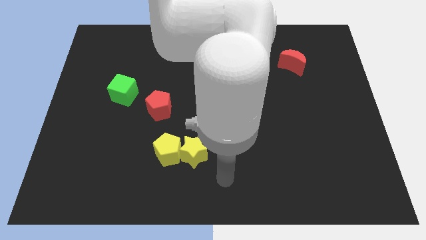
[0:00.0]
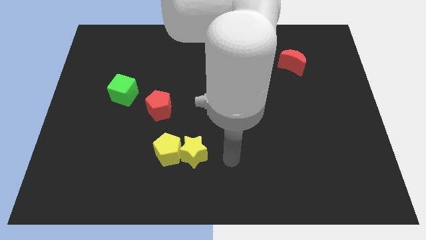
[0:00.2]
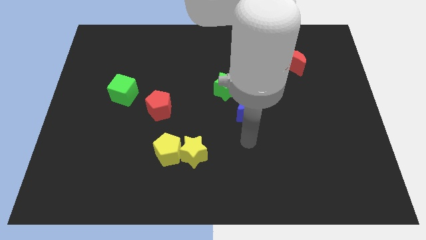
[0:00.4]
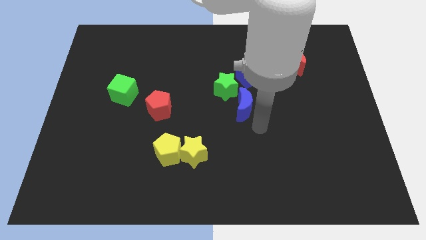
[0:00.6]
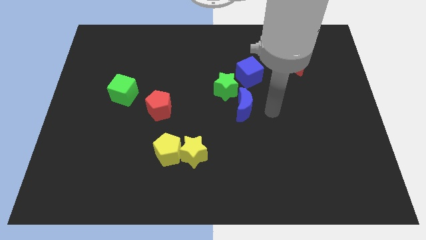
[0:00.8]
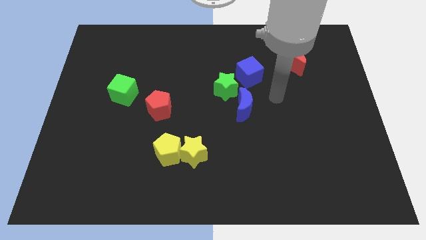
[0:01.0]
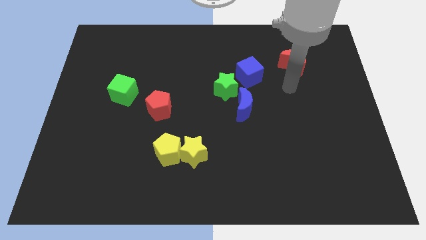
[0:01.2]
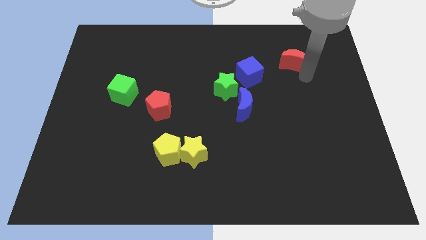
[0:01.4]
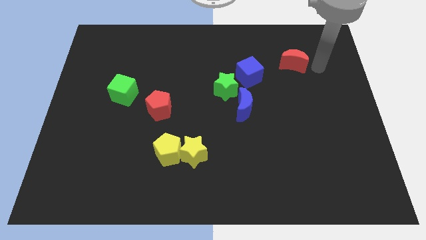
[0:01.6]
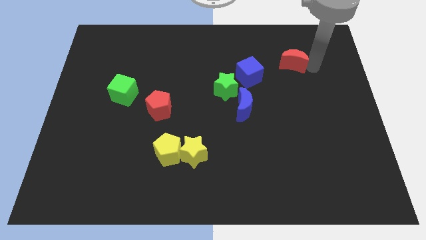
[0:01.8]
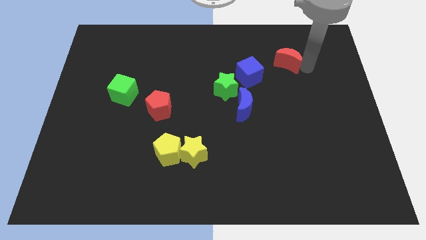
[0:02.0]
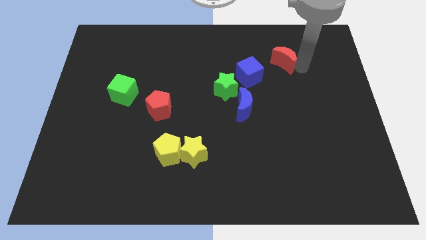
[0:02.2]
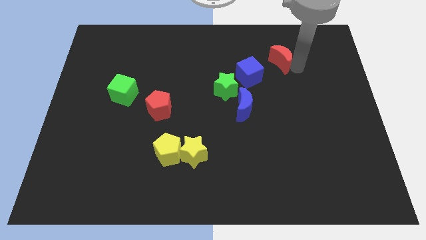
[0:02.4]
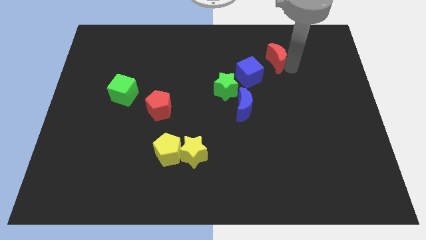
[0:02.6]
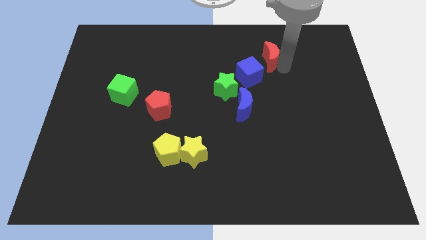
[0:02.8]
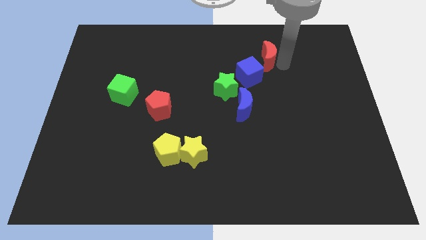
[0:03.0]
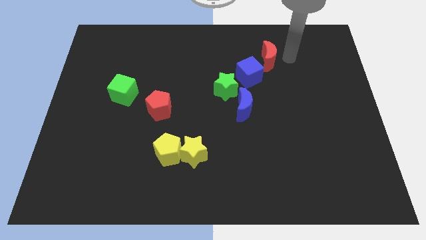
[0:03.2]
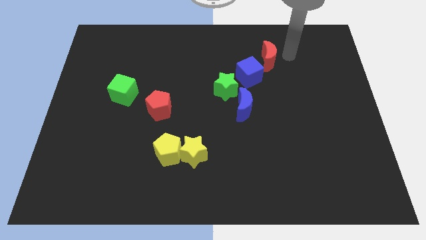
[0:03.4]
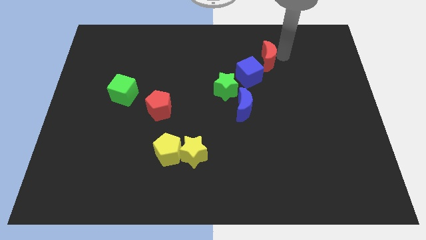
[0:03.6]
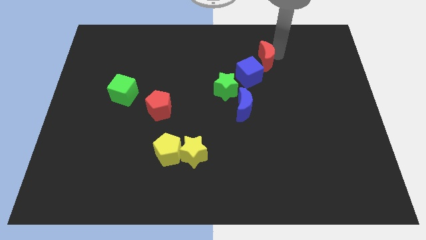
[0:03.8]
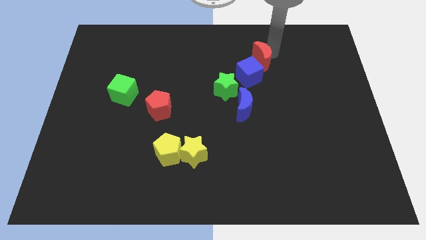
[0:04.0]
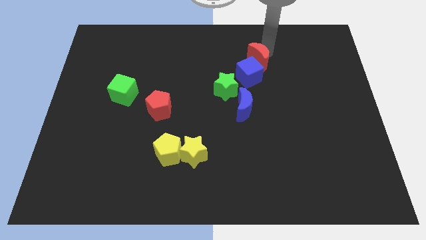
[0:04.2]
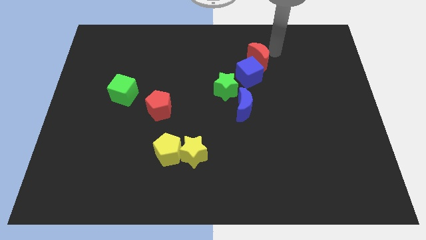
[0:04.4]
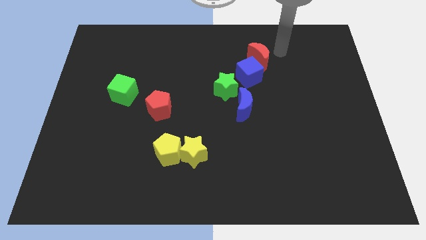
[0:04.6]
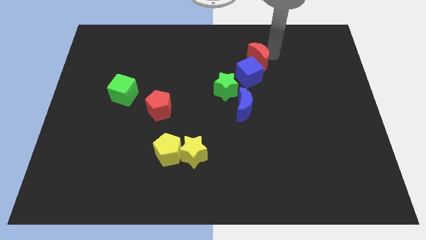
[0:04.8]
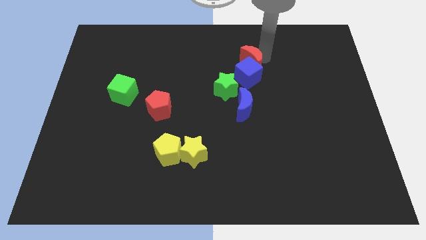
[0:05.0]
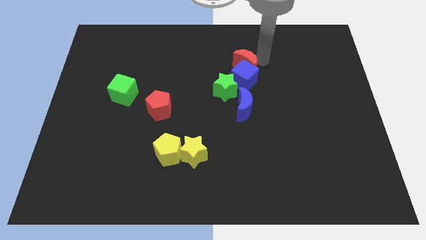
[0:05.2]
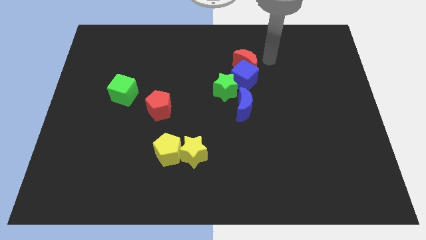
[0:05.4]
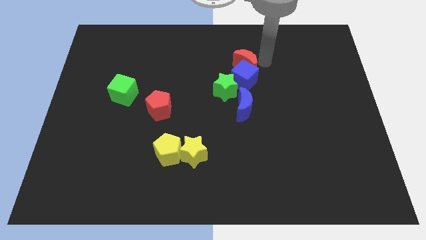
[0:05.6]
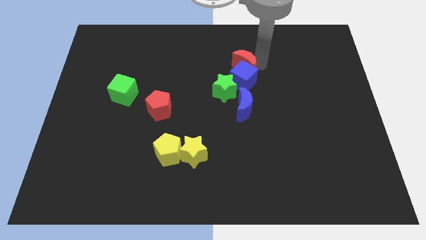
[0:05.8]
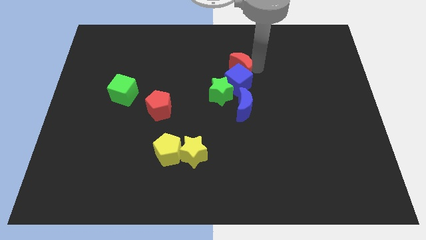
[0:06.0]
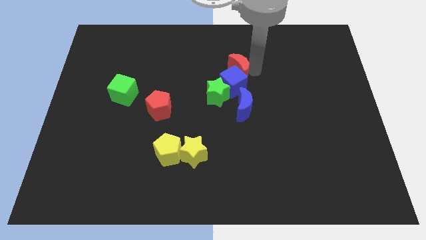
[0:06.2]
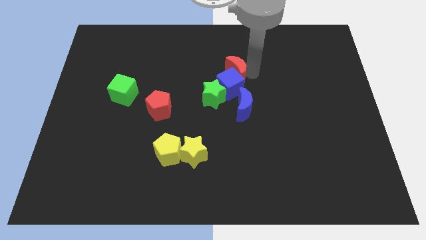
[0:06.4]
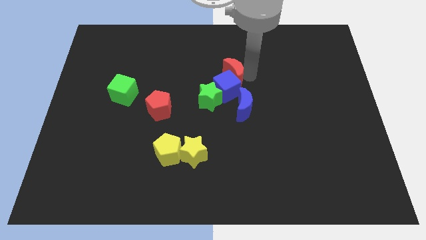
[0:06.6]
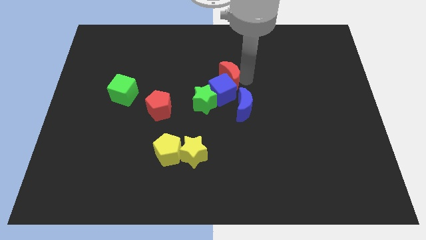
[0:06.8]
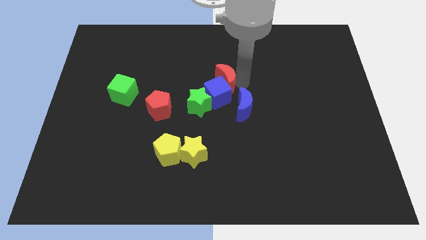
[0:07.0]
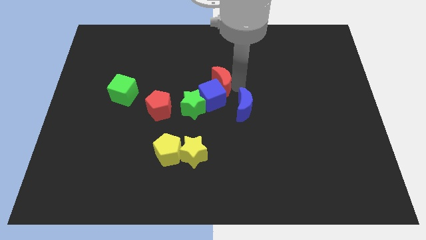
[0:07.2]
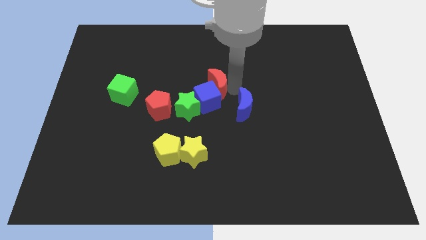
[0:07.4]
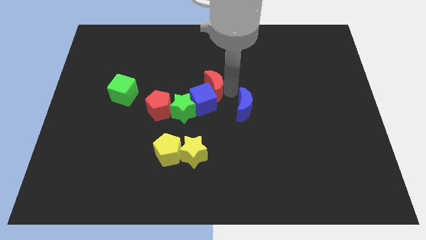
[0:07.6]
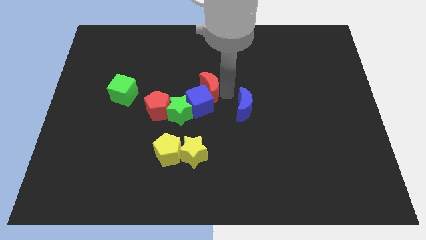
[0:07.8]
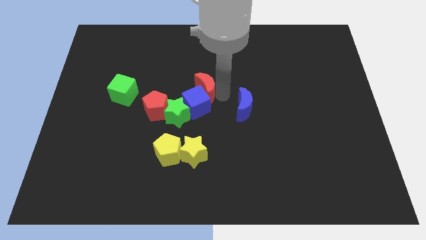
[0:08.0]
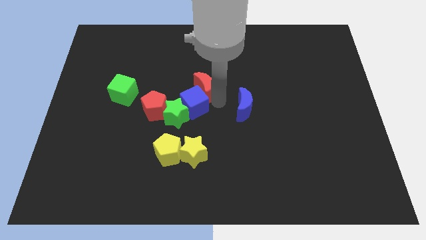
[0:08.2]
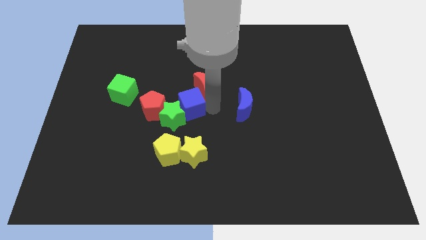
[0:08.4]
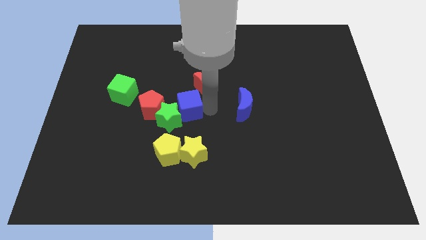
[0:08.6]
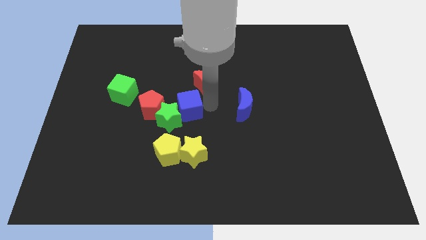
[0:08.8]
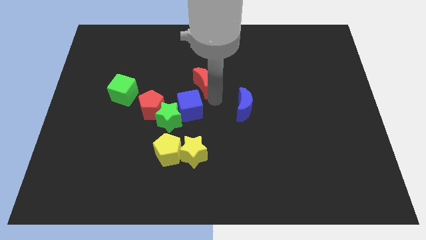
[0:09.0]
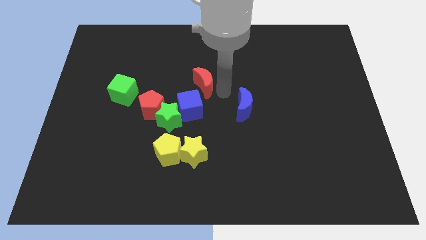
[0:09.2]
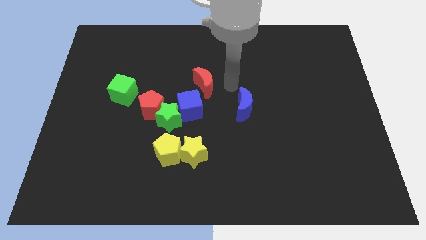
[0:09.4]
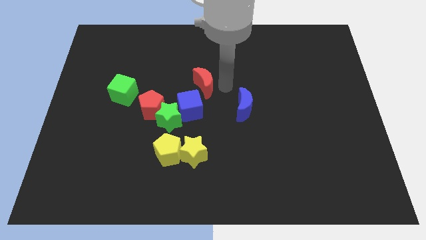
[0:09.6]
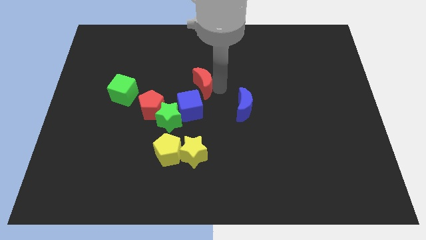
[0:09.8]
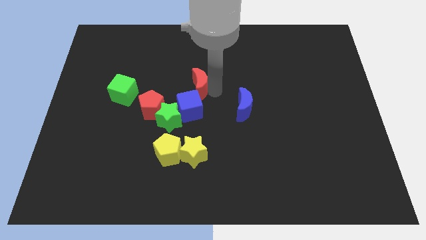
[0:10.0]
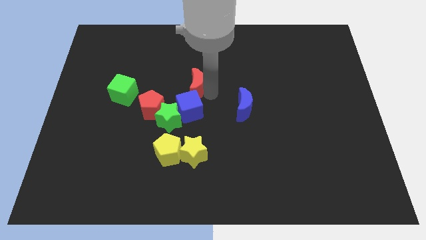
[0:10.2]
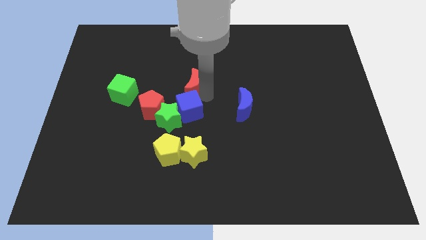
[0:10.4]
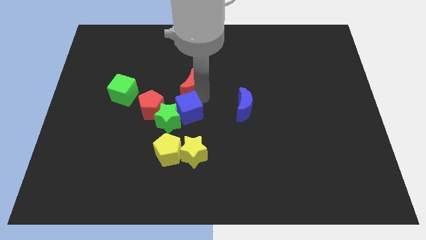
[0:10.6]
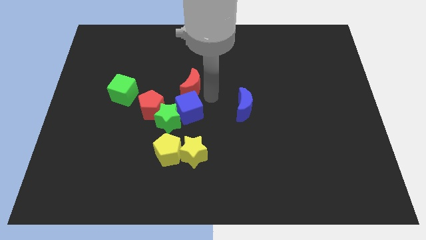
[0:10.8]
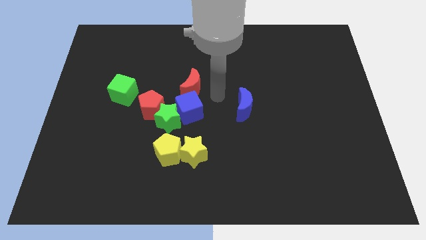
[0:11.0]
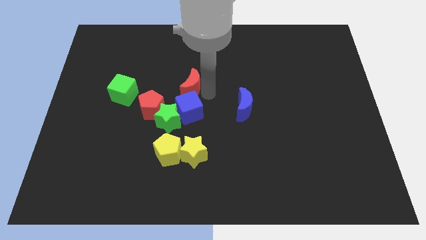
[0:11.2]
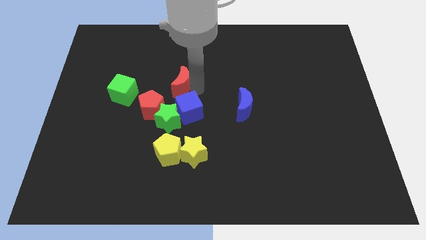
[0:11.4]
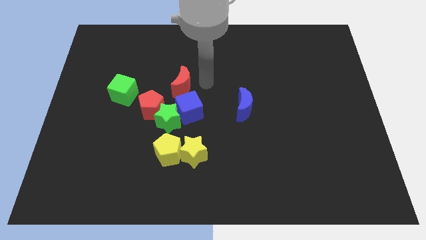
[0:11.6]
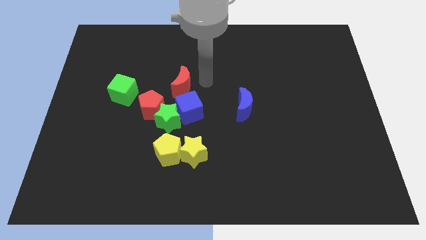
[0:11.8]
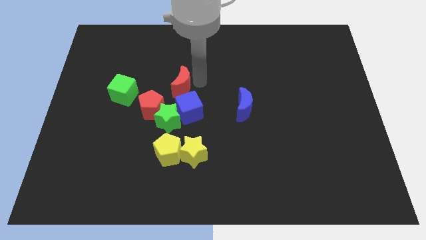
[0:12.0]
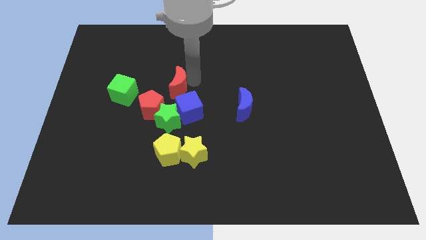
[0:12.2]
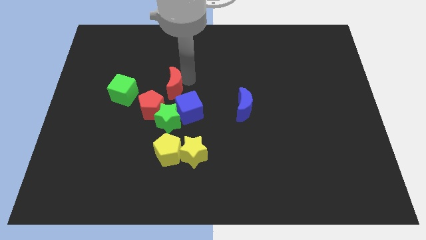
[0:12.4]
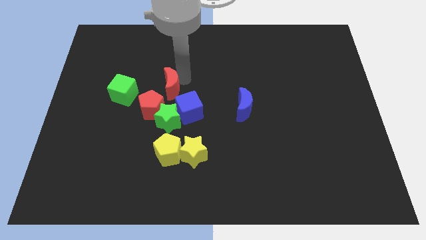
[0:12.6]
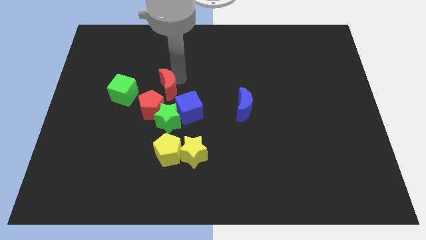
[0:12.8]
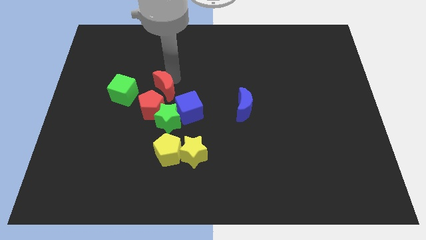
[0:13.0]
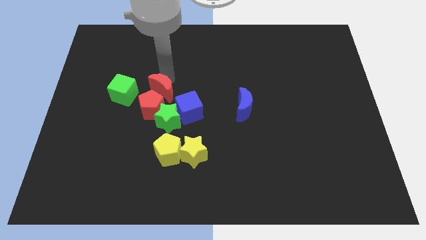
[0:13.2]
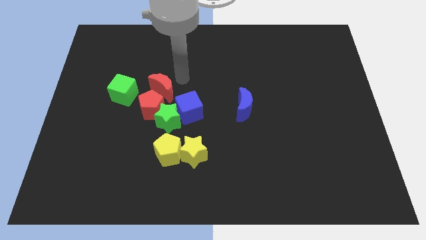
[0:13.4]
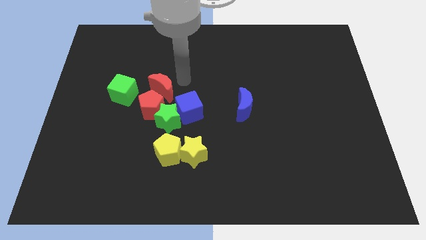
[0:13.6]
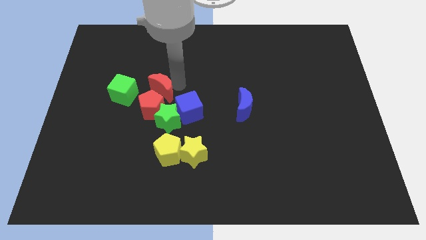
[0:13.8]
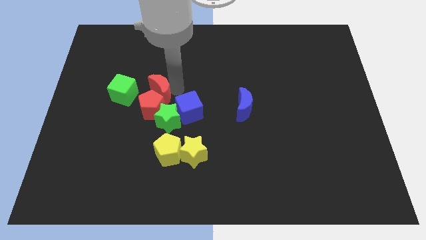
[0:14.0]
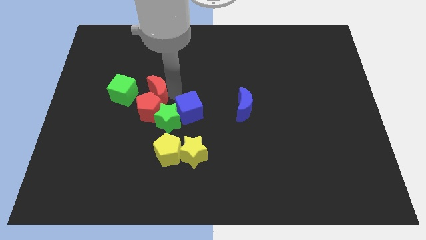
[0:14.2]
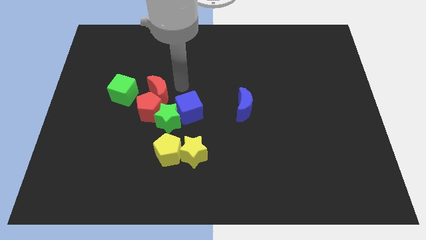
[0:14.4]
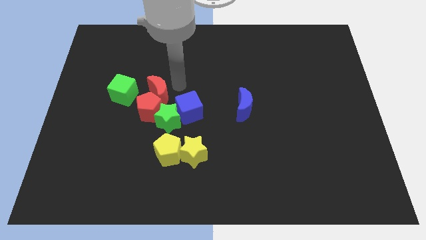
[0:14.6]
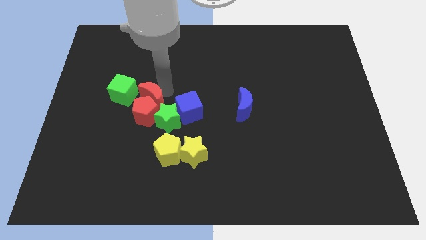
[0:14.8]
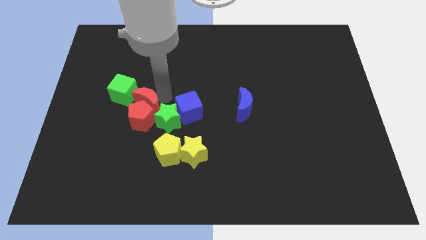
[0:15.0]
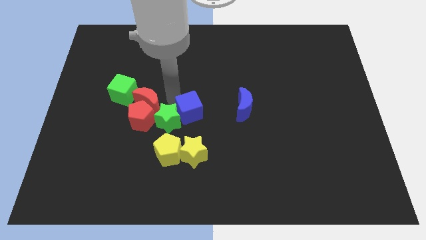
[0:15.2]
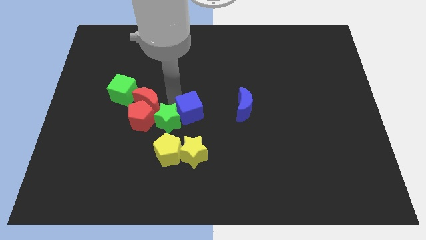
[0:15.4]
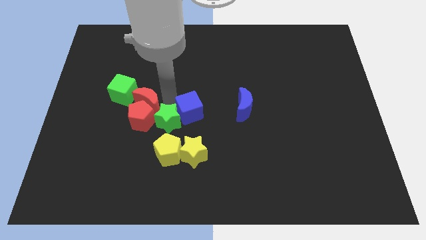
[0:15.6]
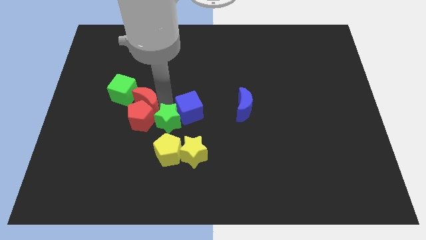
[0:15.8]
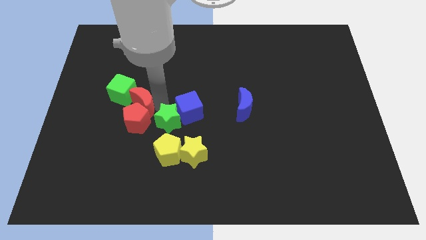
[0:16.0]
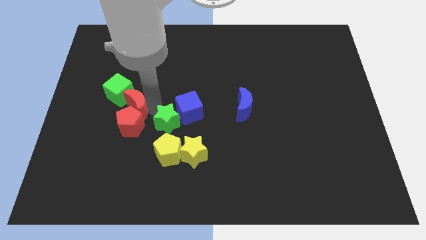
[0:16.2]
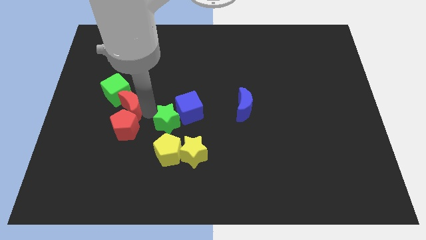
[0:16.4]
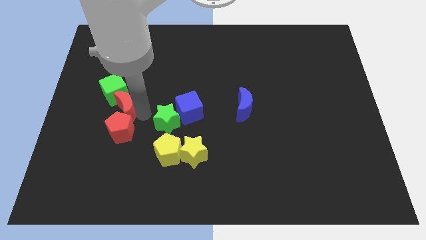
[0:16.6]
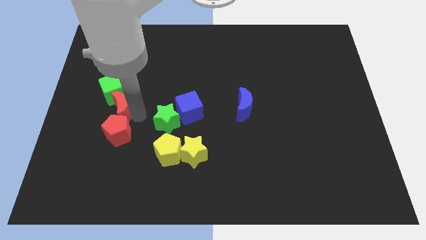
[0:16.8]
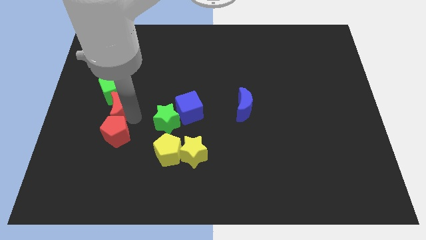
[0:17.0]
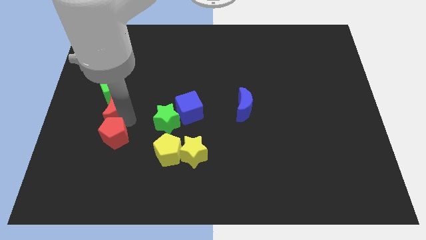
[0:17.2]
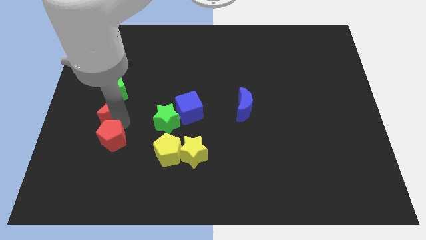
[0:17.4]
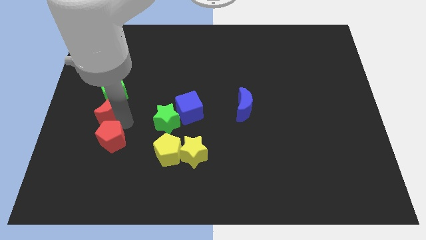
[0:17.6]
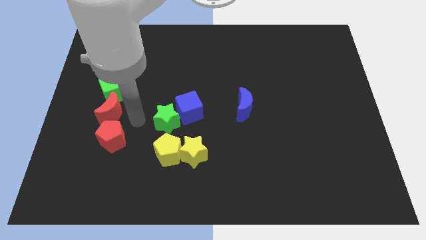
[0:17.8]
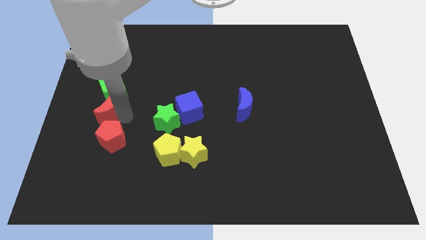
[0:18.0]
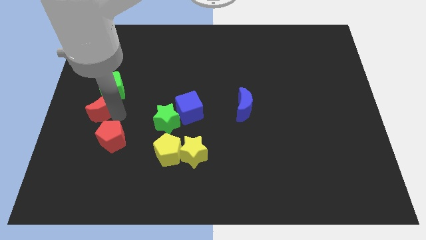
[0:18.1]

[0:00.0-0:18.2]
put the red moon to the left side of the board
